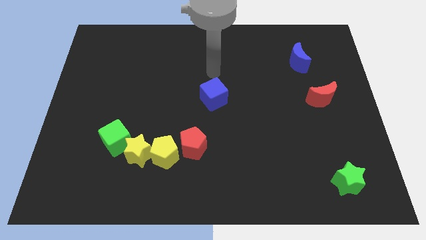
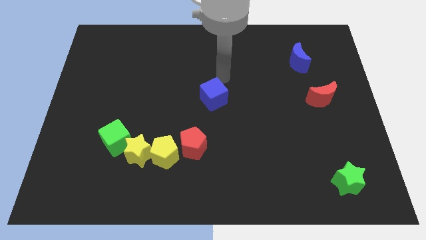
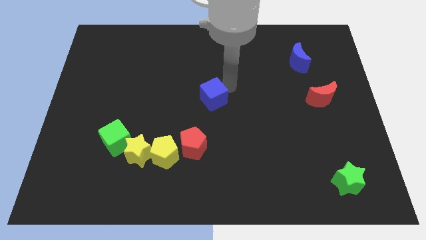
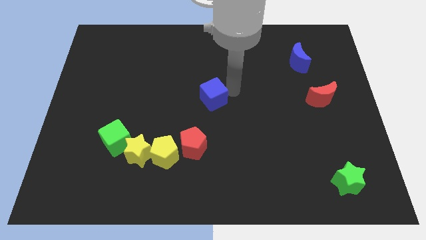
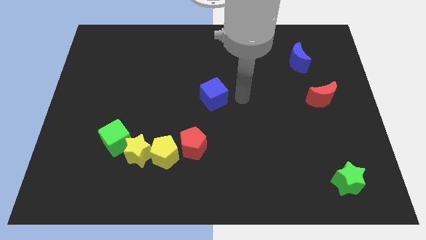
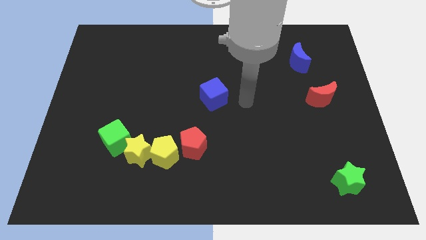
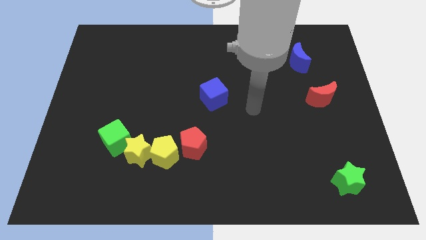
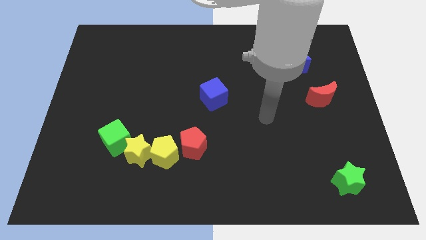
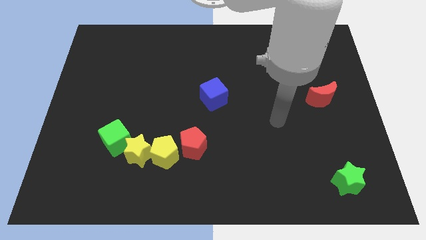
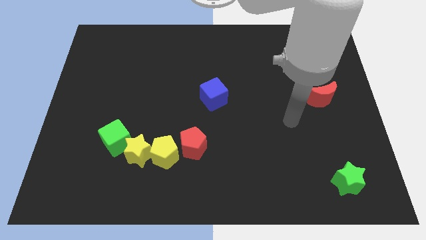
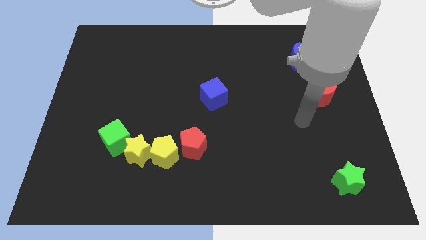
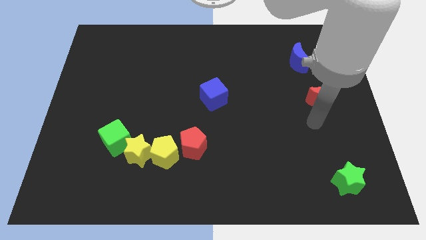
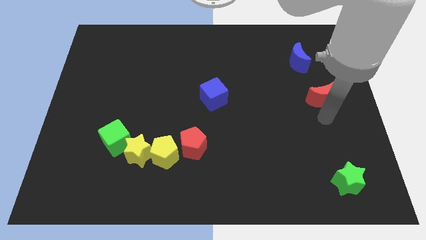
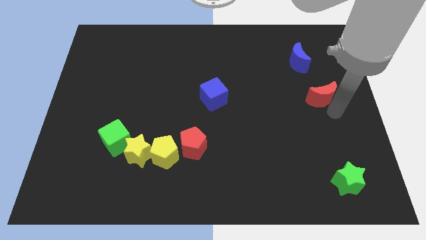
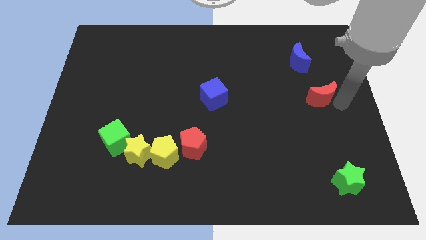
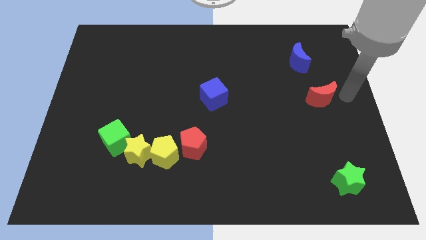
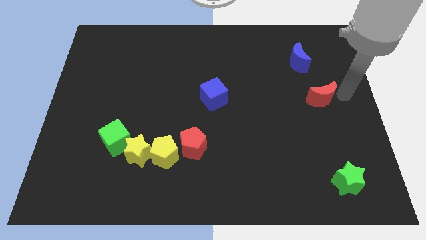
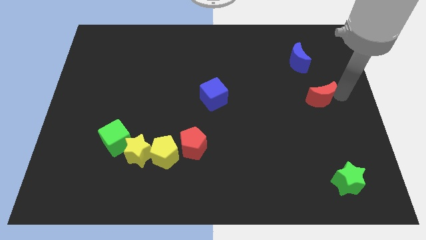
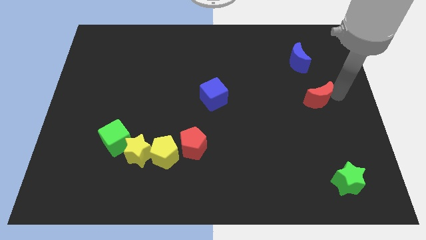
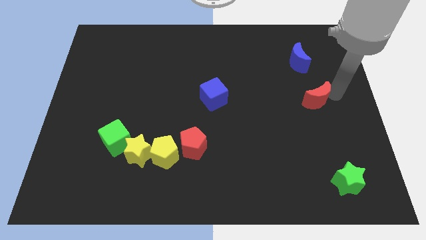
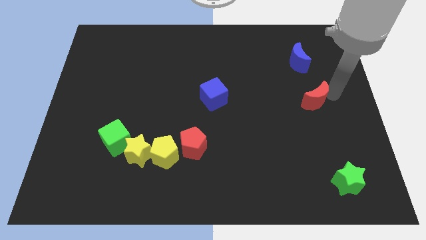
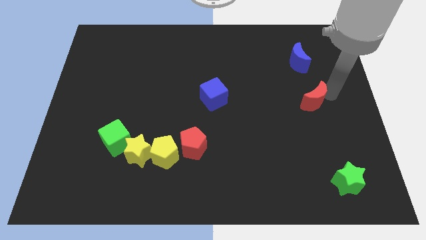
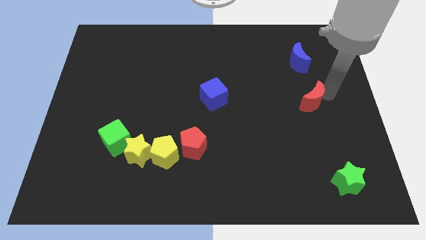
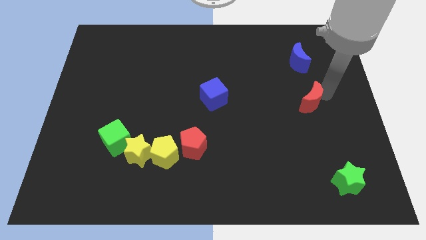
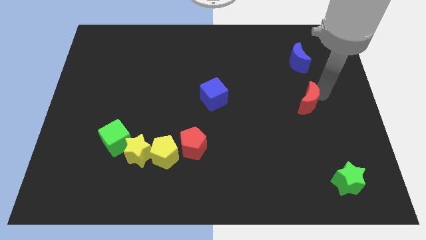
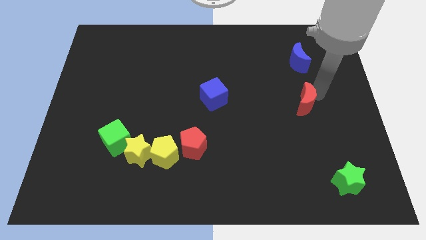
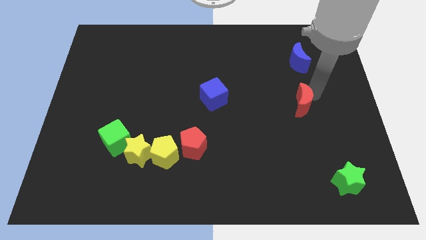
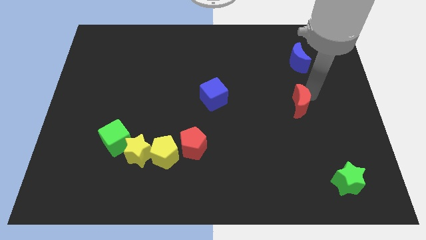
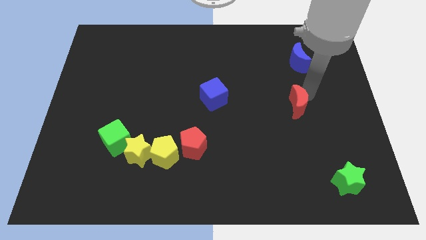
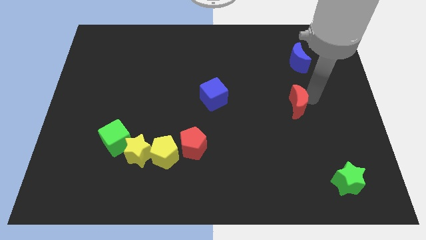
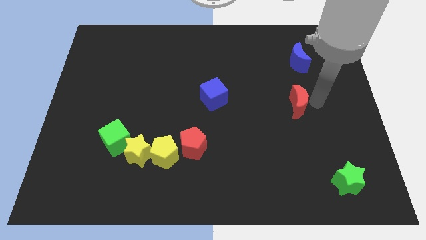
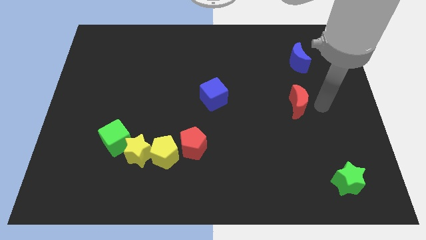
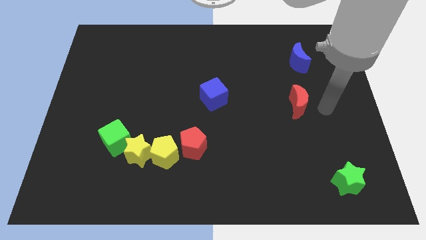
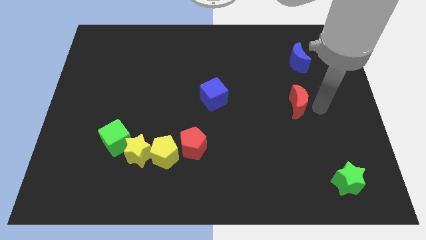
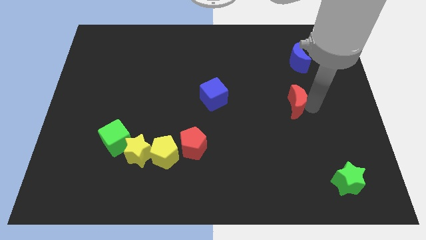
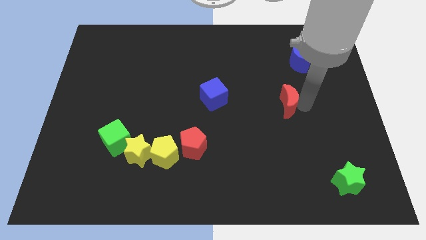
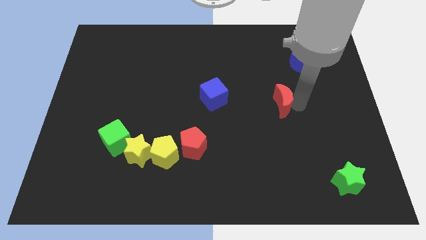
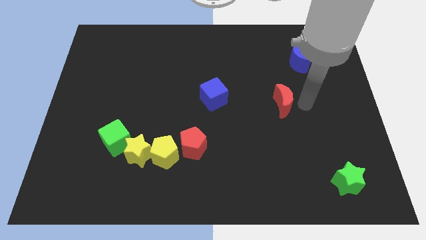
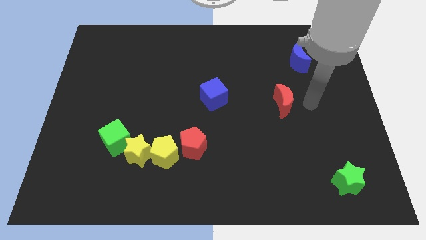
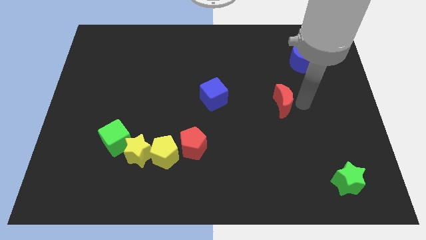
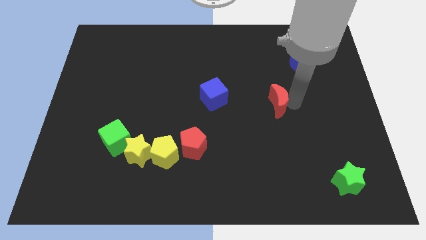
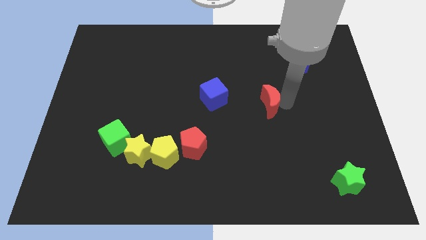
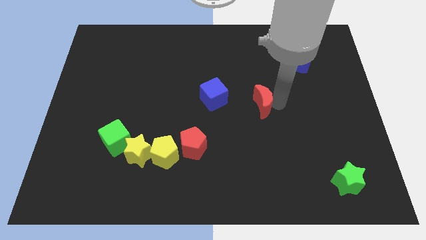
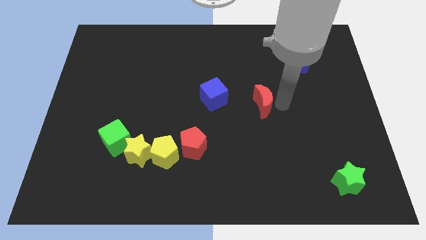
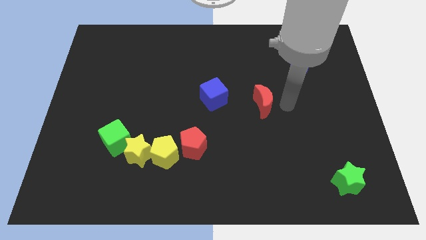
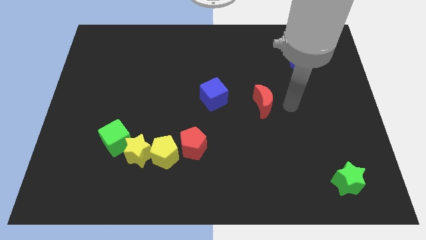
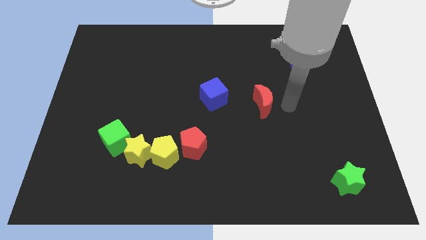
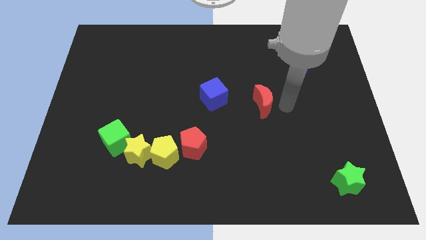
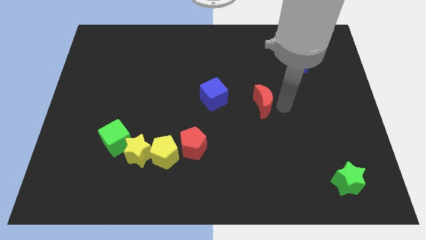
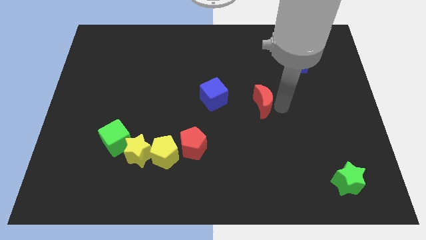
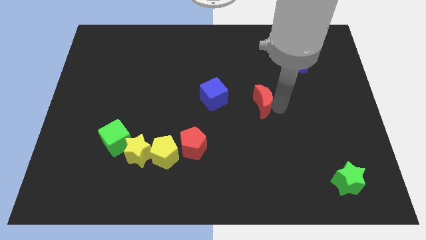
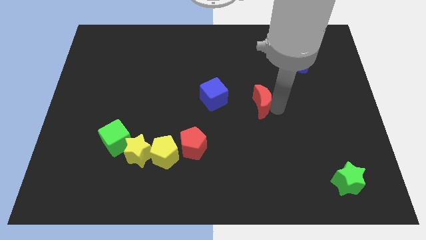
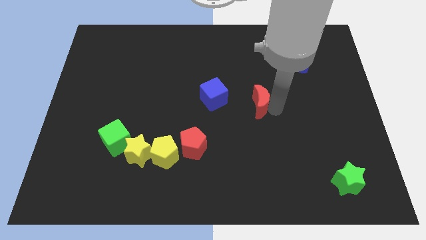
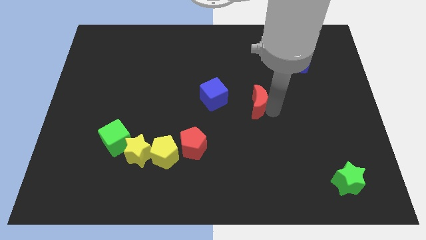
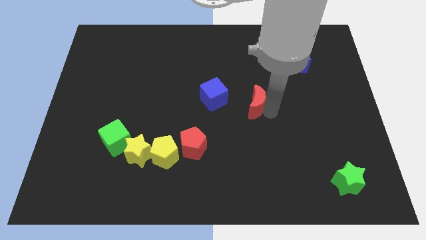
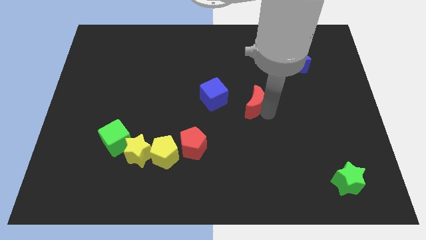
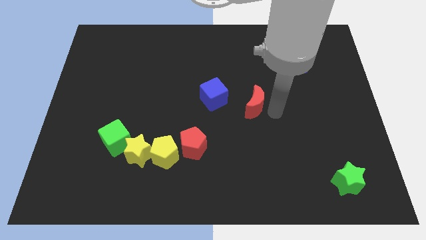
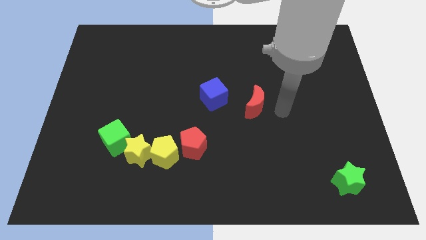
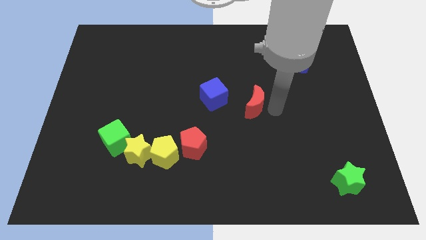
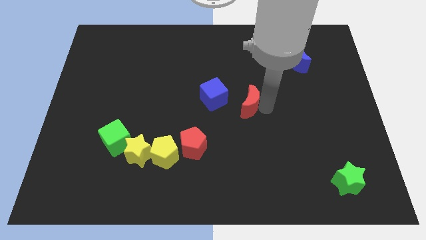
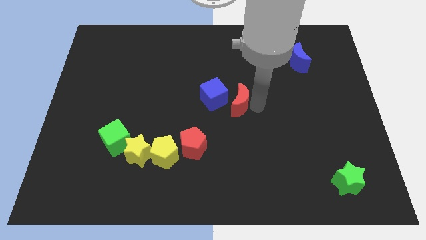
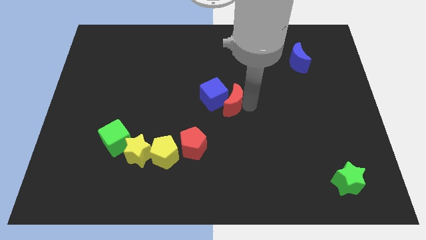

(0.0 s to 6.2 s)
move the red moon towards the blue cube

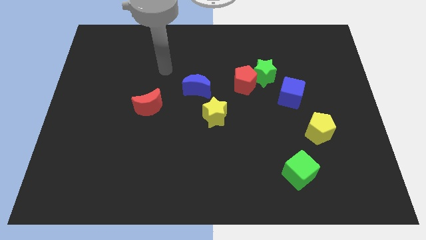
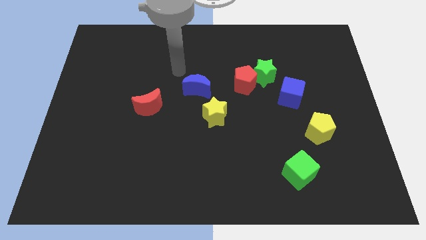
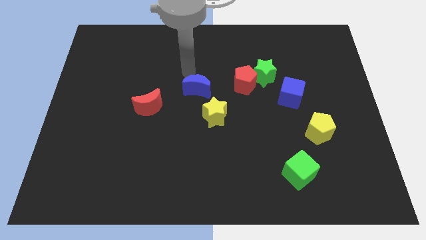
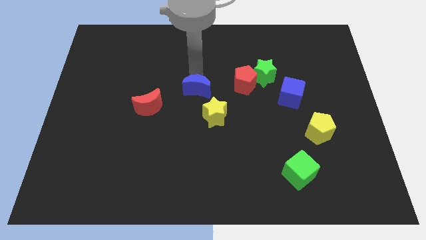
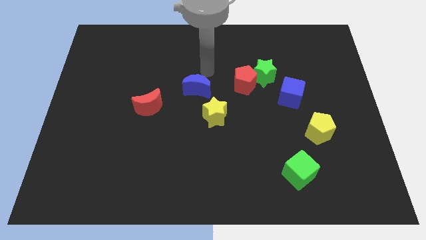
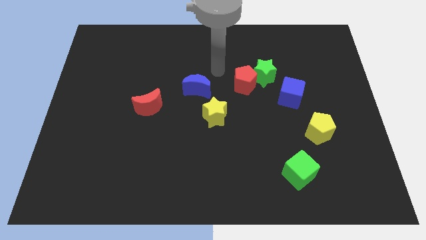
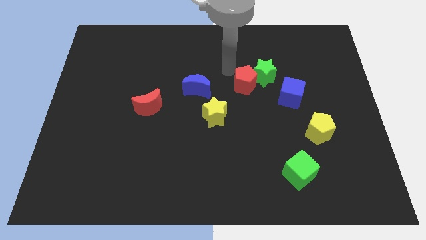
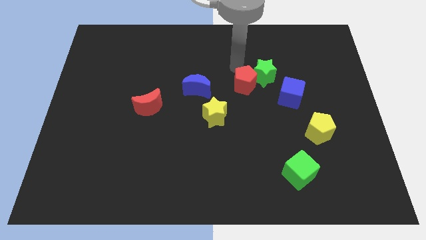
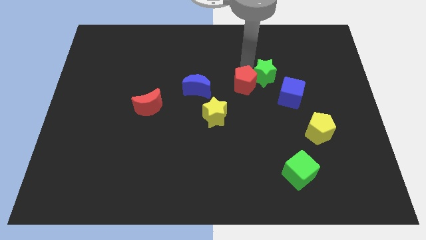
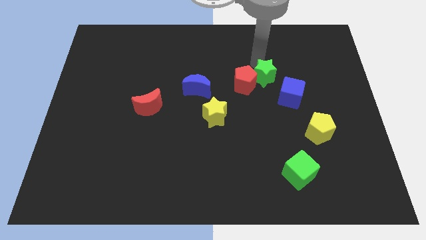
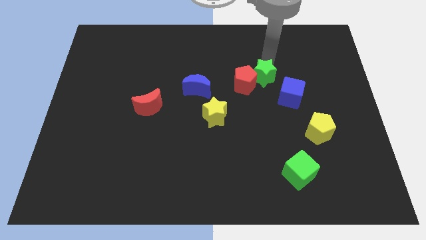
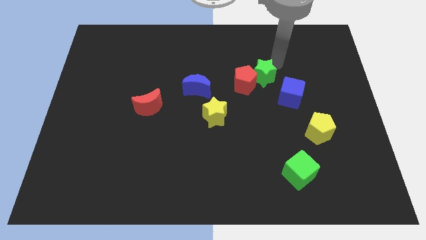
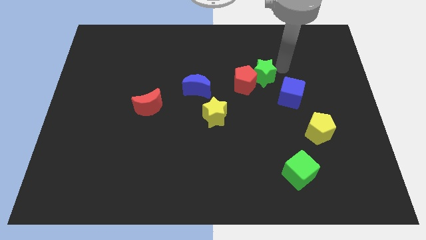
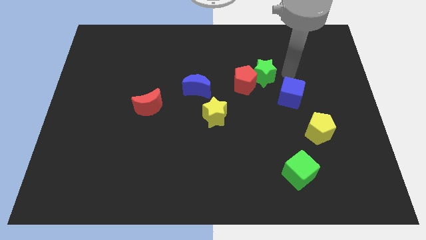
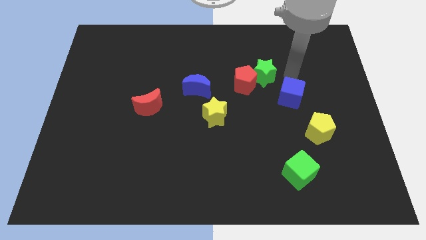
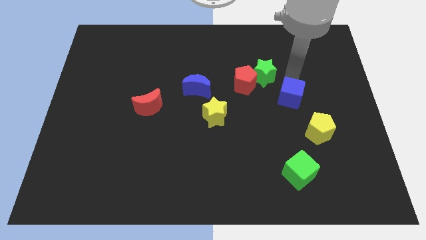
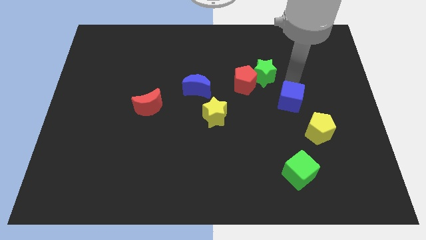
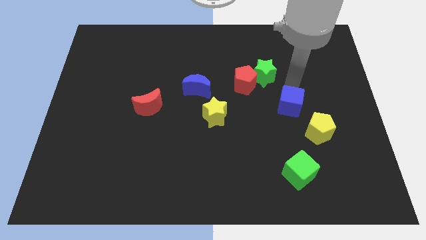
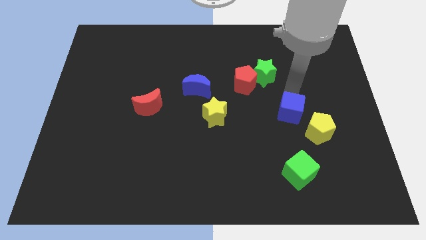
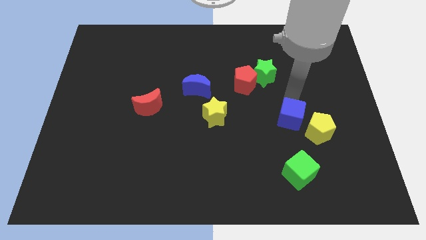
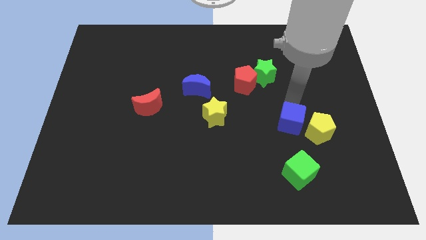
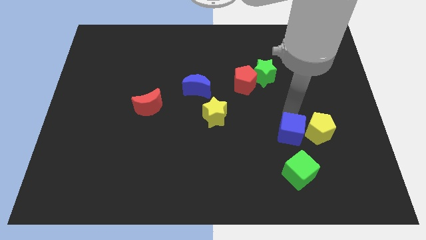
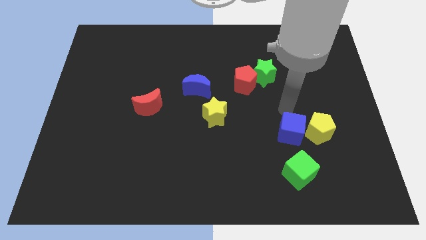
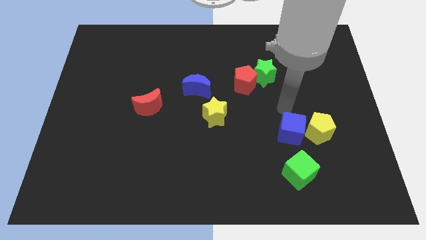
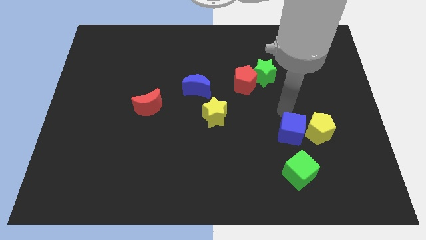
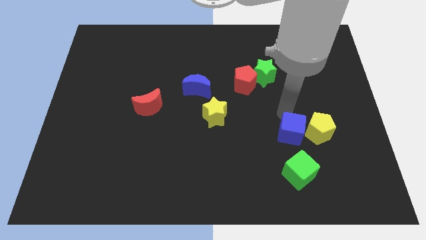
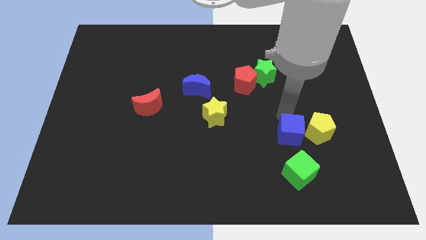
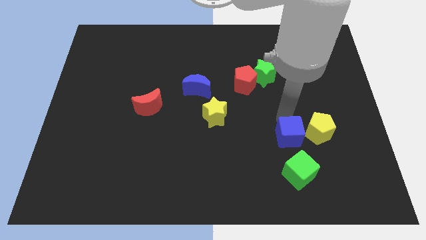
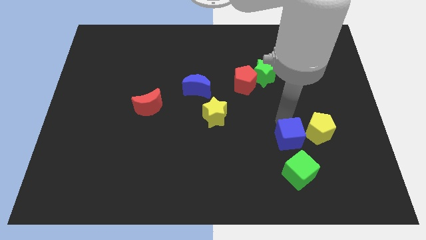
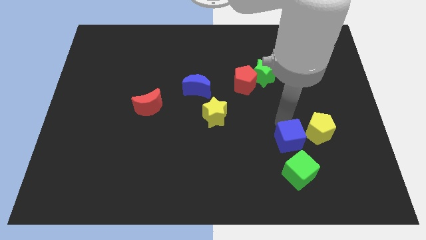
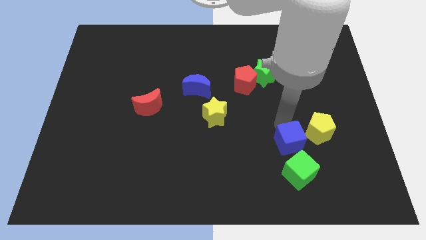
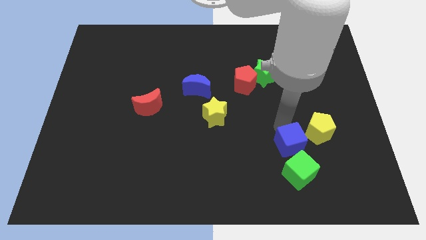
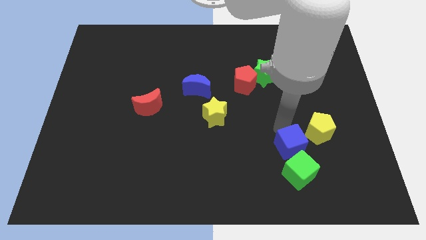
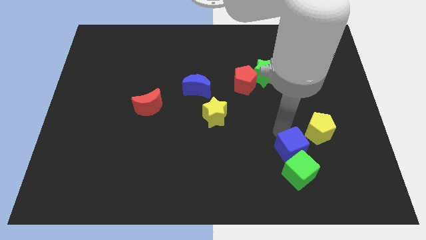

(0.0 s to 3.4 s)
put the blue cube towards the green cube
